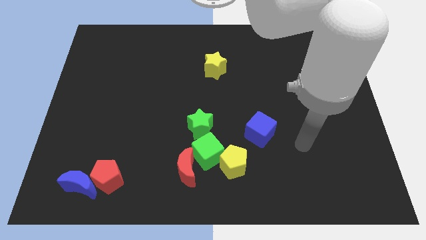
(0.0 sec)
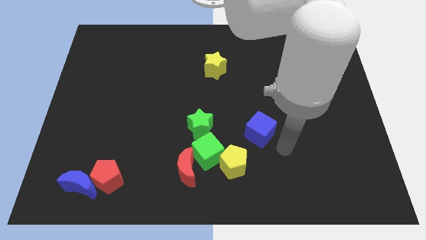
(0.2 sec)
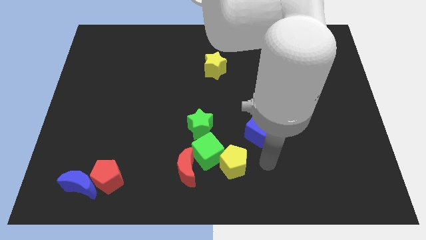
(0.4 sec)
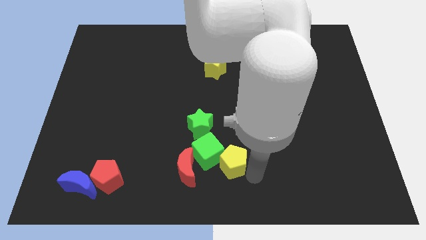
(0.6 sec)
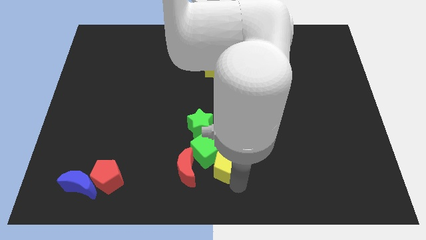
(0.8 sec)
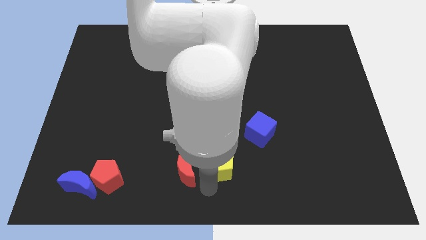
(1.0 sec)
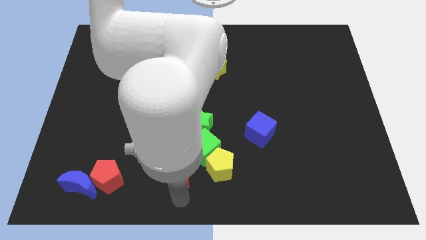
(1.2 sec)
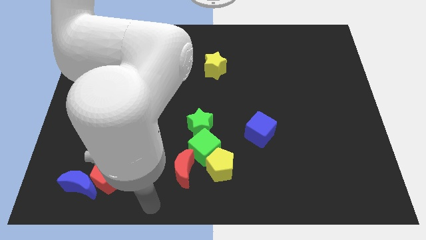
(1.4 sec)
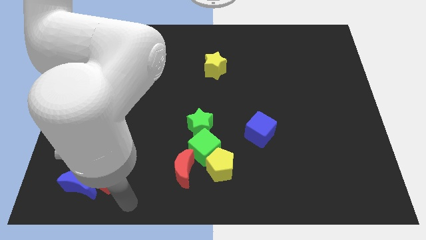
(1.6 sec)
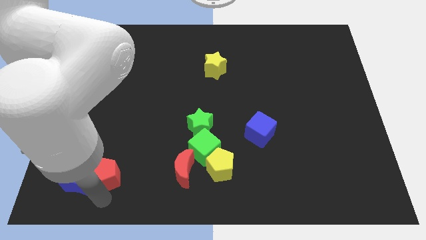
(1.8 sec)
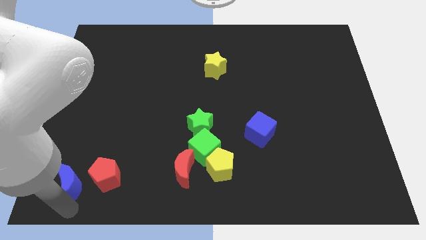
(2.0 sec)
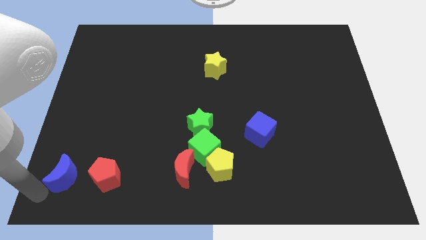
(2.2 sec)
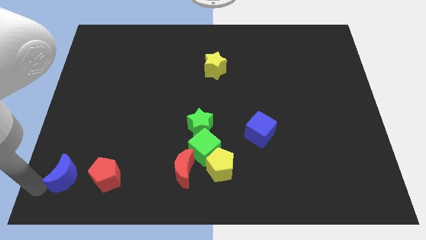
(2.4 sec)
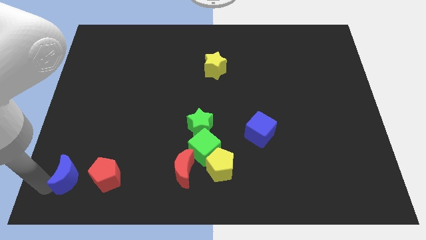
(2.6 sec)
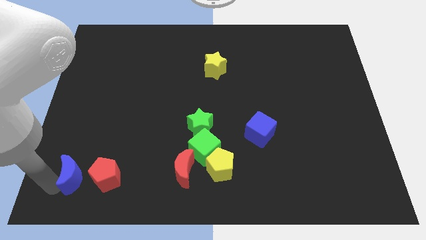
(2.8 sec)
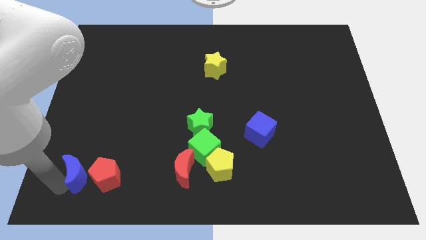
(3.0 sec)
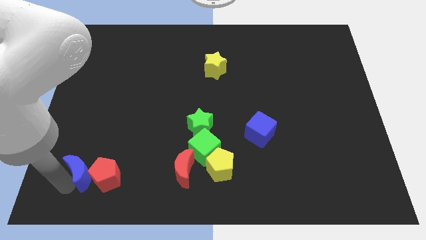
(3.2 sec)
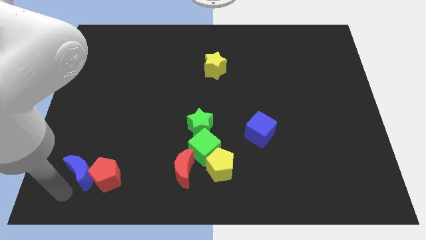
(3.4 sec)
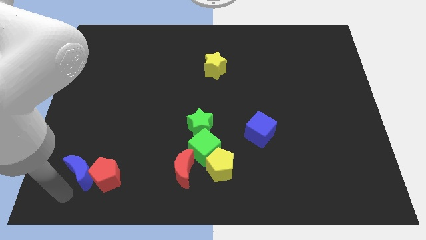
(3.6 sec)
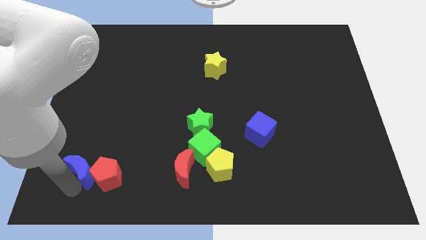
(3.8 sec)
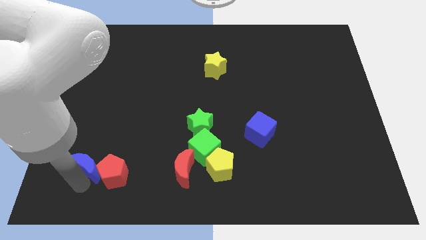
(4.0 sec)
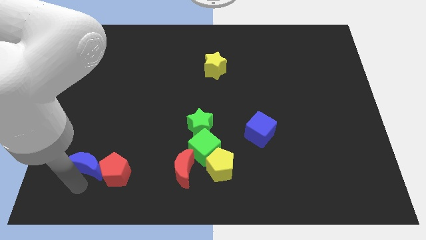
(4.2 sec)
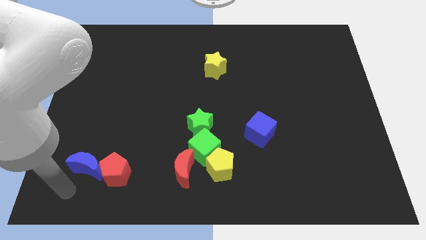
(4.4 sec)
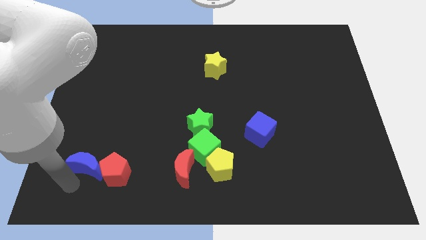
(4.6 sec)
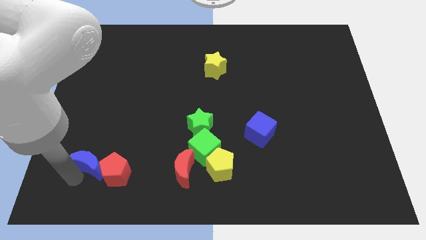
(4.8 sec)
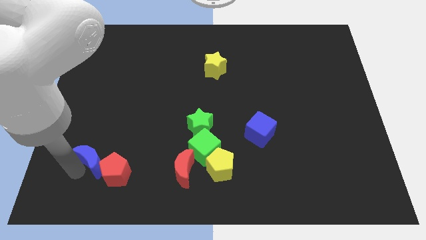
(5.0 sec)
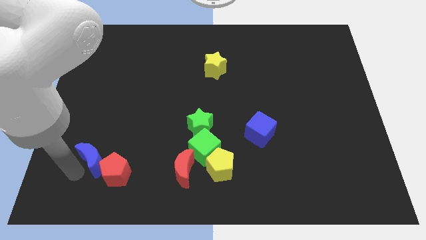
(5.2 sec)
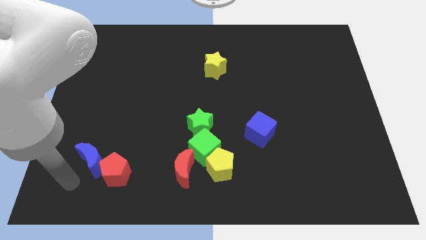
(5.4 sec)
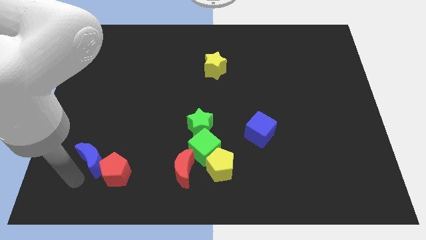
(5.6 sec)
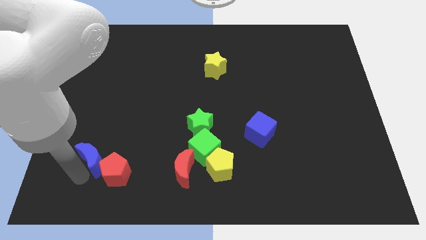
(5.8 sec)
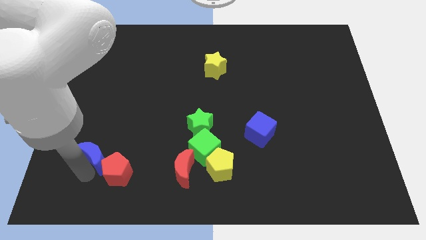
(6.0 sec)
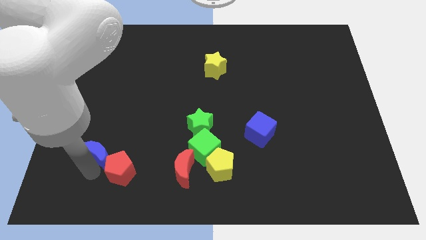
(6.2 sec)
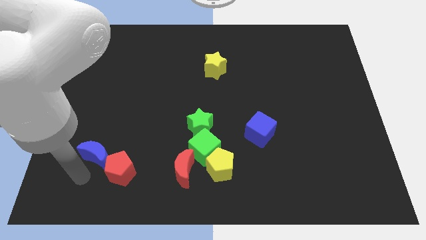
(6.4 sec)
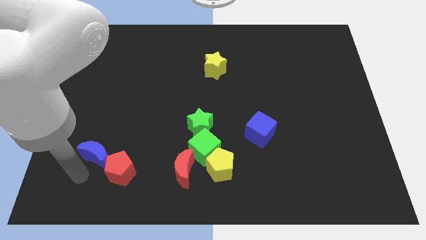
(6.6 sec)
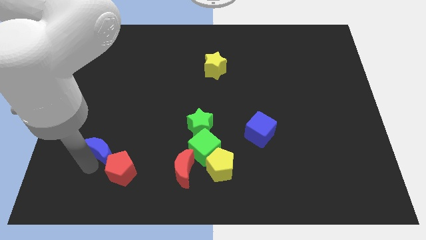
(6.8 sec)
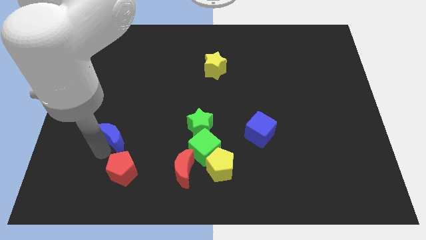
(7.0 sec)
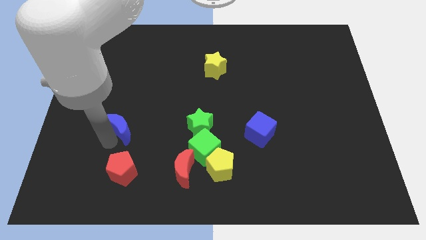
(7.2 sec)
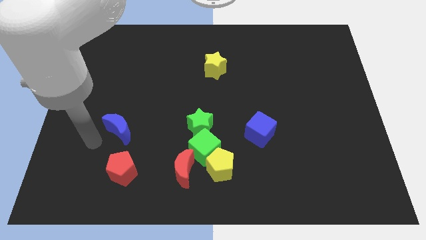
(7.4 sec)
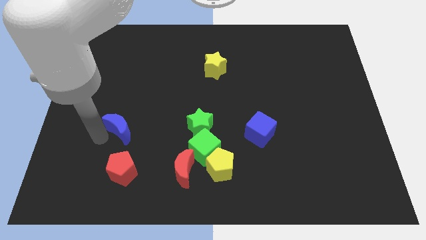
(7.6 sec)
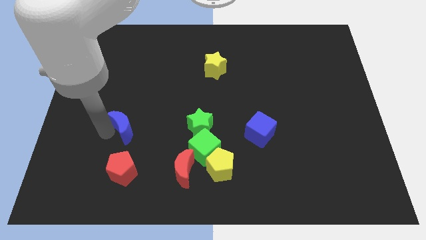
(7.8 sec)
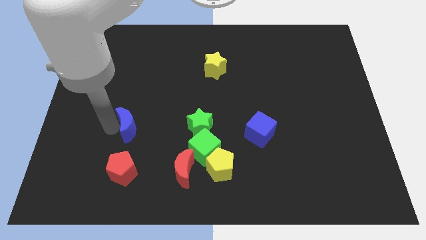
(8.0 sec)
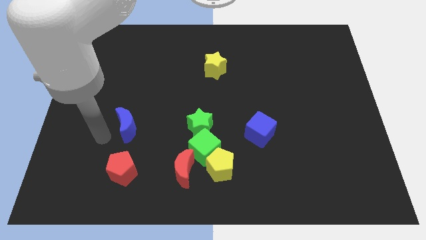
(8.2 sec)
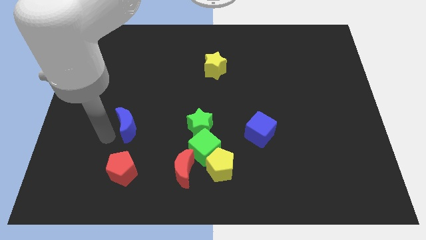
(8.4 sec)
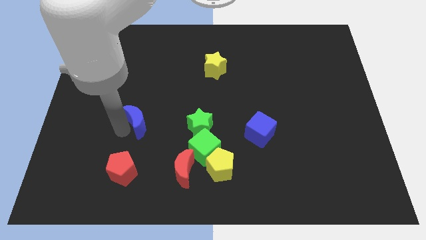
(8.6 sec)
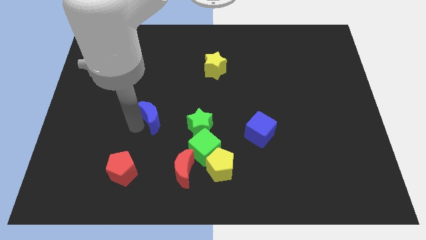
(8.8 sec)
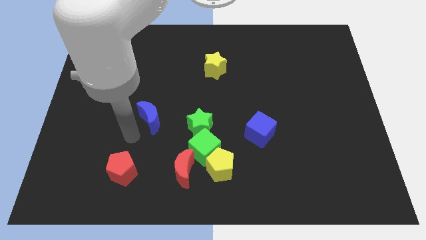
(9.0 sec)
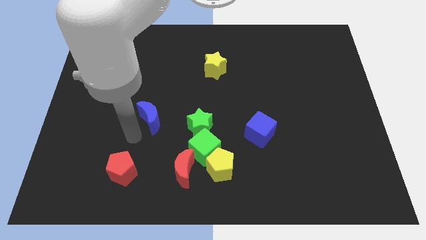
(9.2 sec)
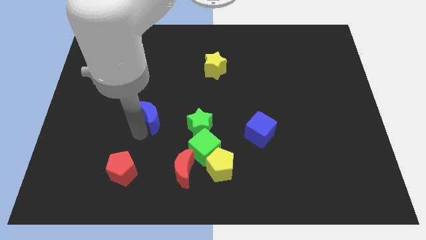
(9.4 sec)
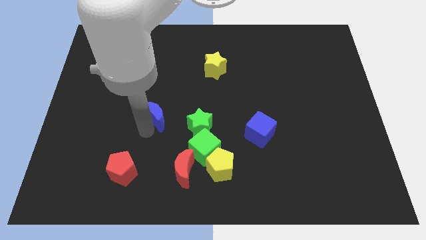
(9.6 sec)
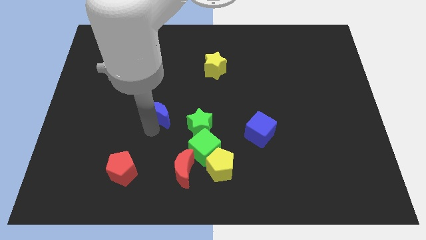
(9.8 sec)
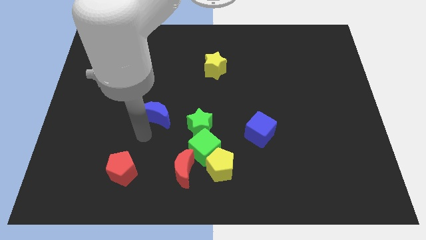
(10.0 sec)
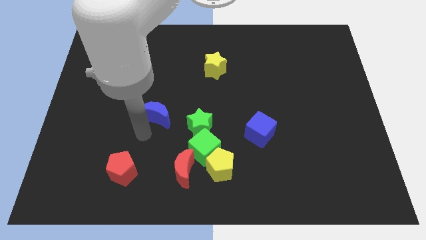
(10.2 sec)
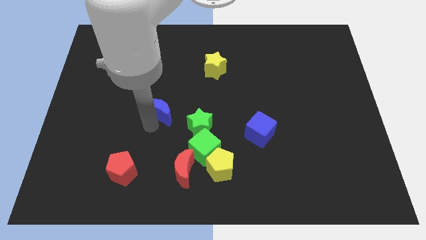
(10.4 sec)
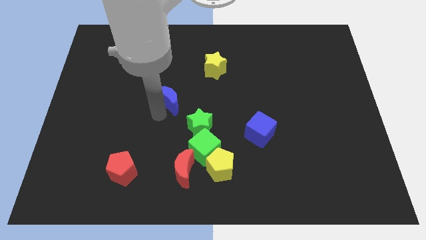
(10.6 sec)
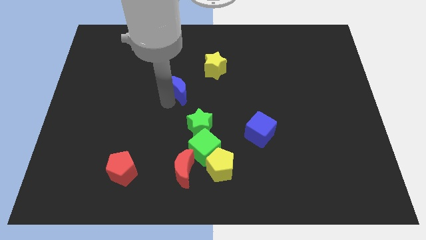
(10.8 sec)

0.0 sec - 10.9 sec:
push the blue moon to the bottom left of the yellow star

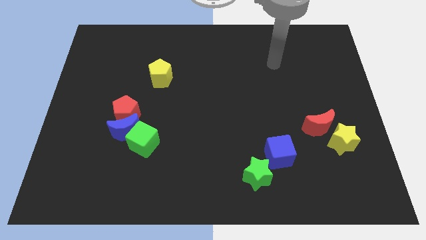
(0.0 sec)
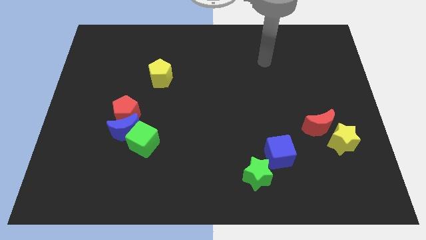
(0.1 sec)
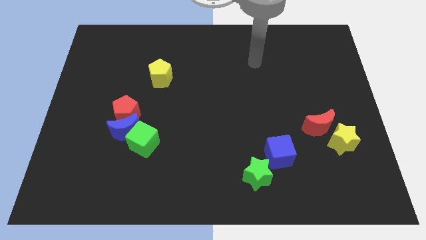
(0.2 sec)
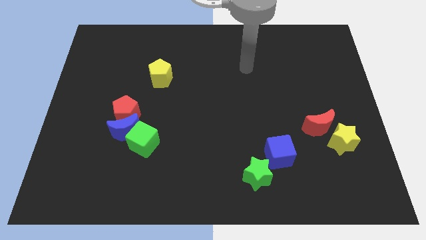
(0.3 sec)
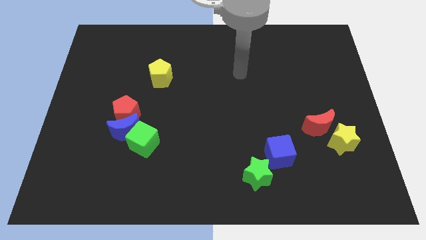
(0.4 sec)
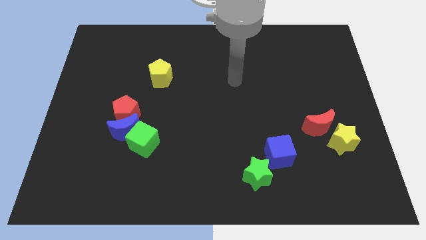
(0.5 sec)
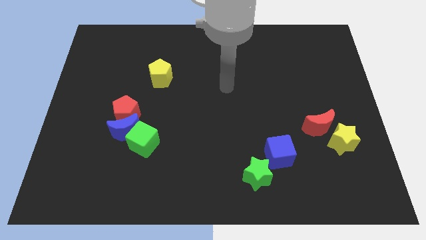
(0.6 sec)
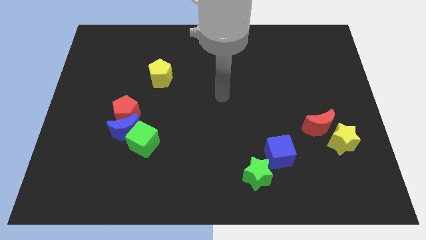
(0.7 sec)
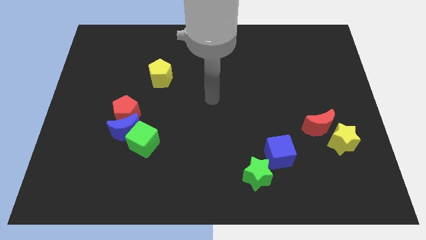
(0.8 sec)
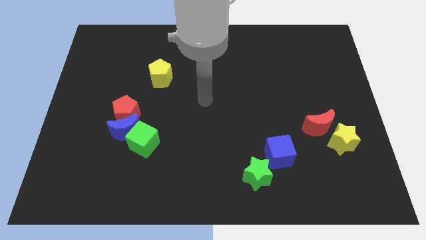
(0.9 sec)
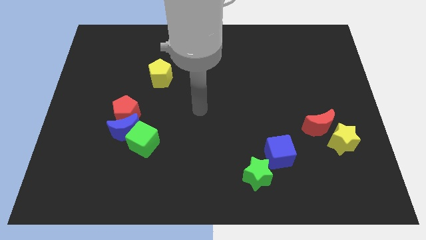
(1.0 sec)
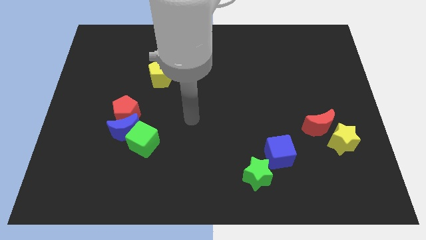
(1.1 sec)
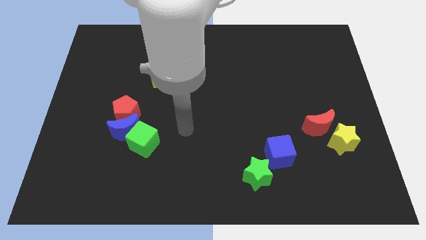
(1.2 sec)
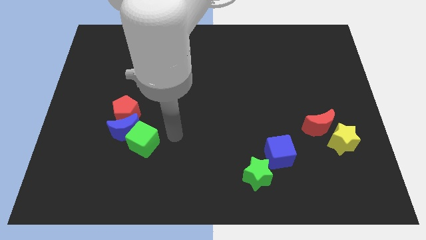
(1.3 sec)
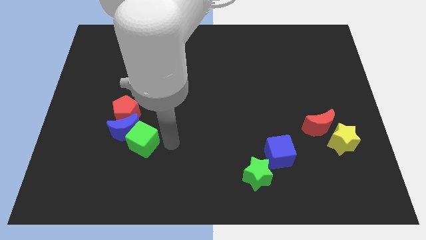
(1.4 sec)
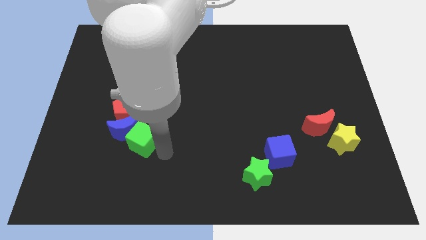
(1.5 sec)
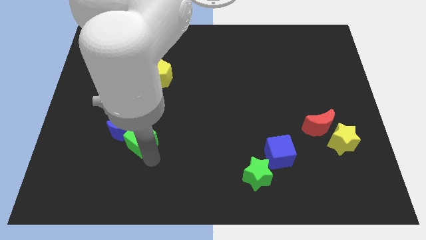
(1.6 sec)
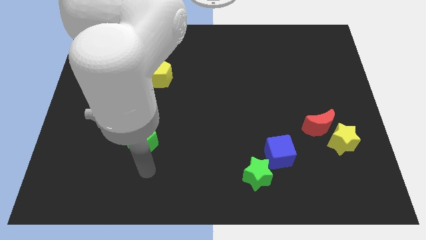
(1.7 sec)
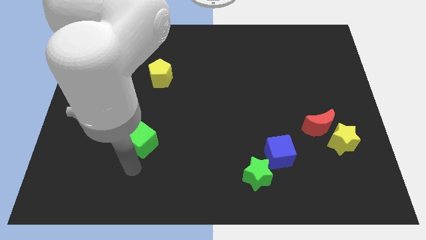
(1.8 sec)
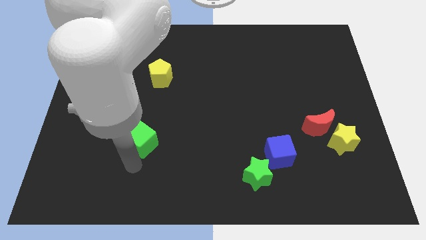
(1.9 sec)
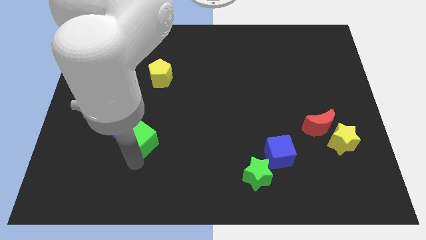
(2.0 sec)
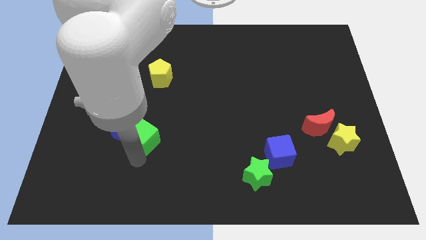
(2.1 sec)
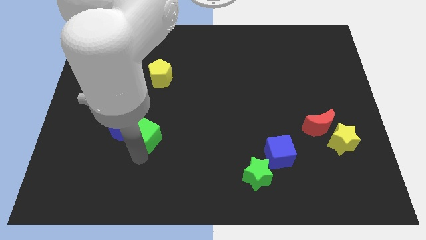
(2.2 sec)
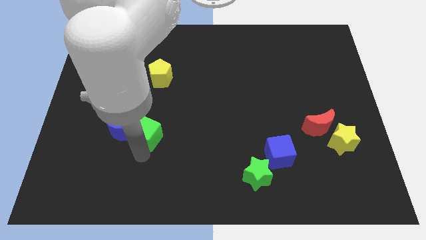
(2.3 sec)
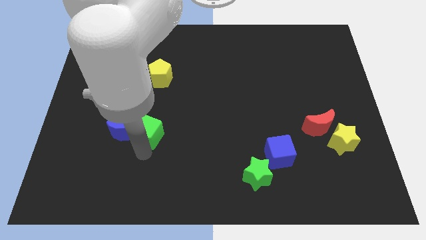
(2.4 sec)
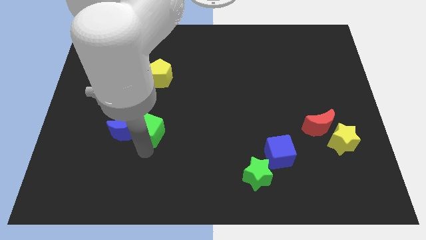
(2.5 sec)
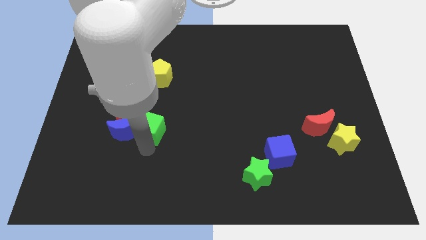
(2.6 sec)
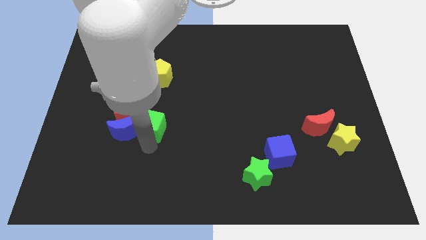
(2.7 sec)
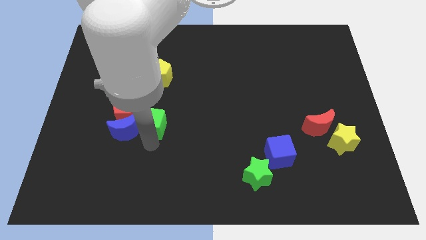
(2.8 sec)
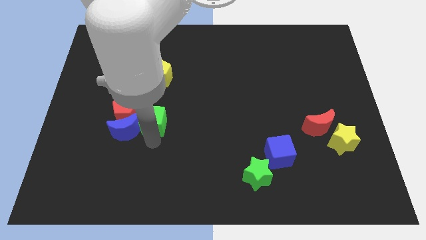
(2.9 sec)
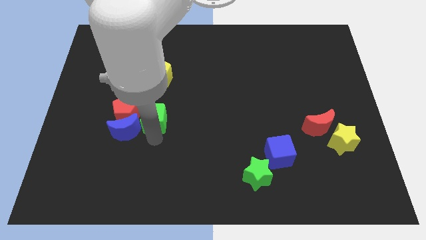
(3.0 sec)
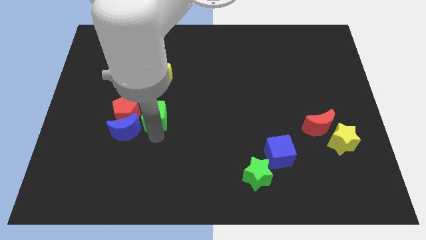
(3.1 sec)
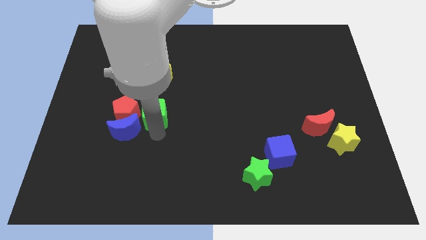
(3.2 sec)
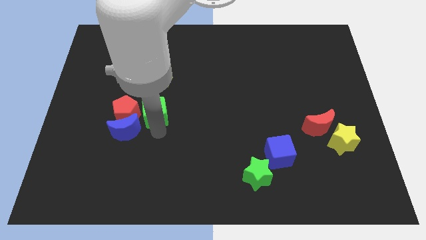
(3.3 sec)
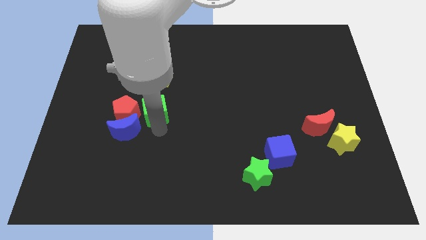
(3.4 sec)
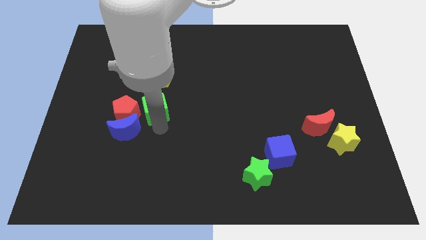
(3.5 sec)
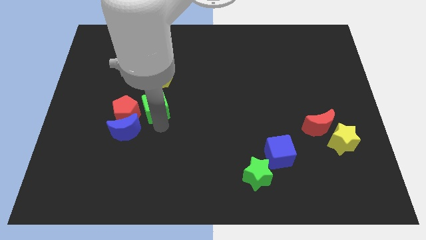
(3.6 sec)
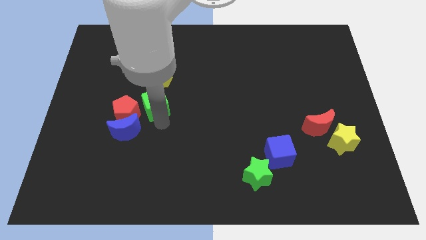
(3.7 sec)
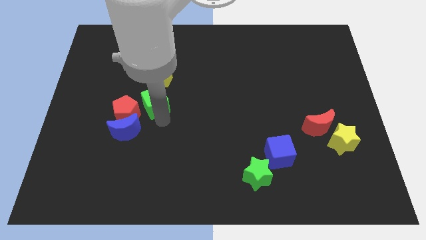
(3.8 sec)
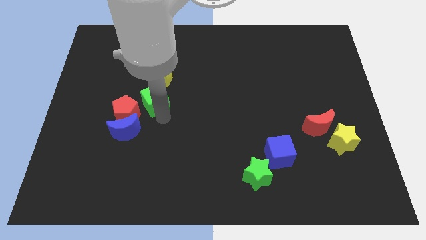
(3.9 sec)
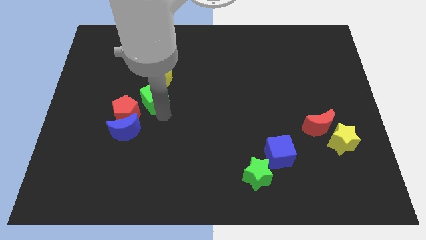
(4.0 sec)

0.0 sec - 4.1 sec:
push the green cube to the bottom left side of the yellow pentagon
